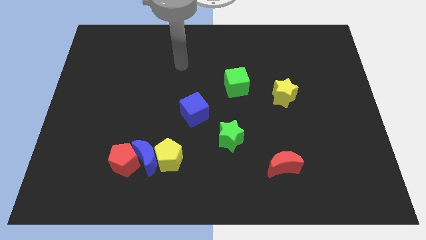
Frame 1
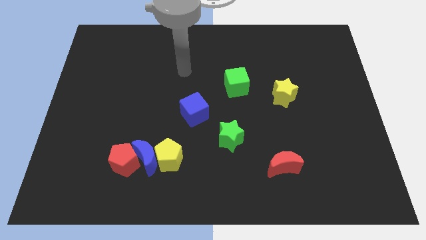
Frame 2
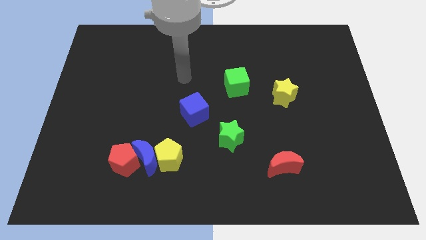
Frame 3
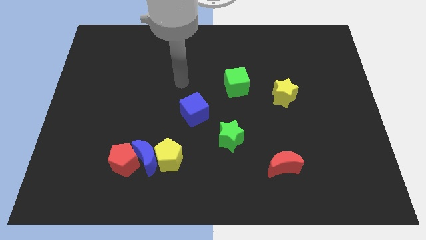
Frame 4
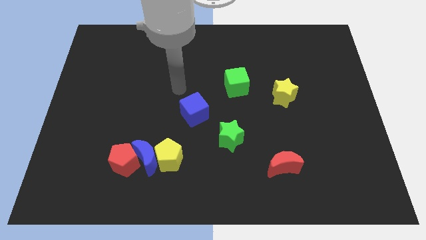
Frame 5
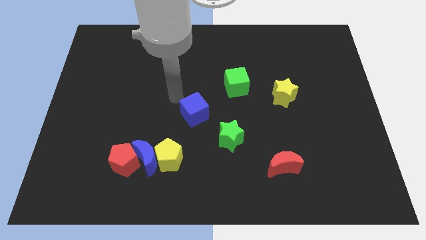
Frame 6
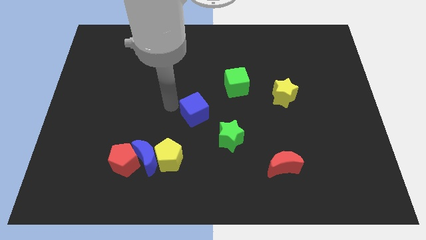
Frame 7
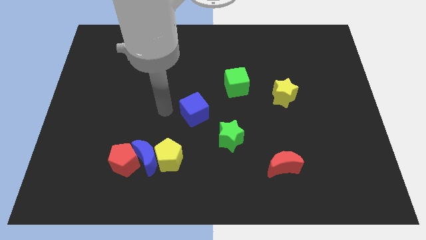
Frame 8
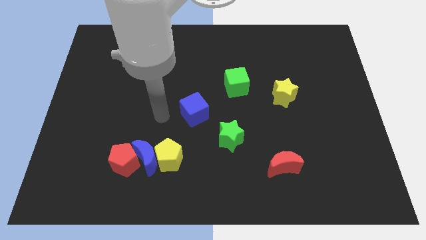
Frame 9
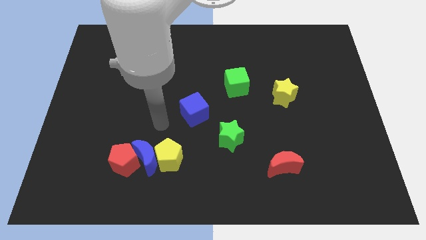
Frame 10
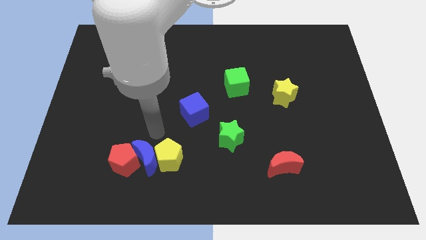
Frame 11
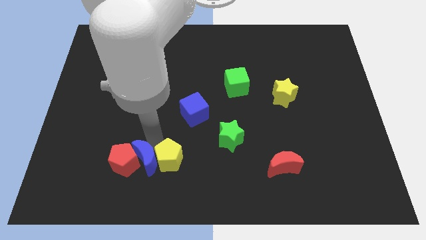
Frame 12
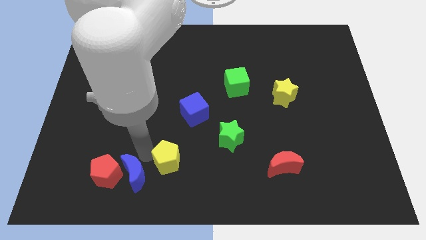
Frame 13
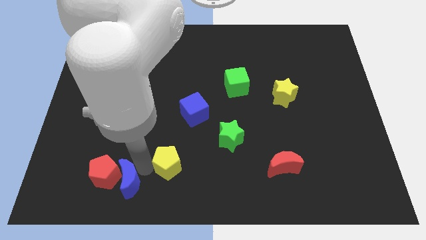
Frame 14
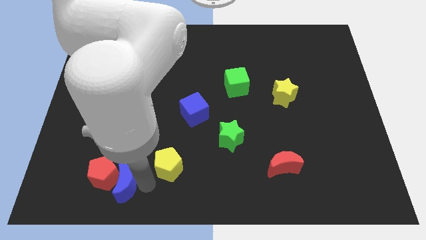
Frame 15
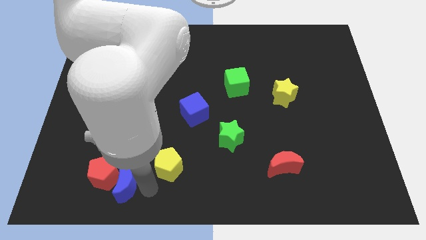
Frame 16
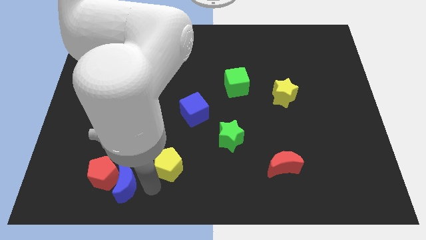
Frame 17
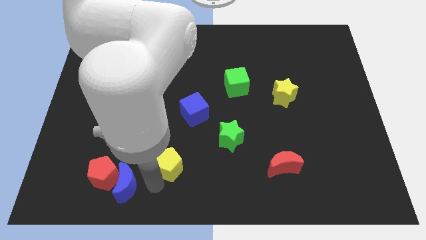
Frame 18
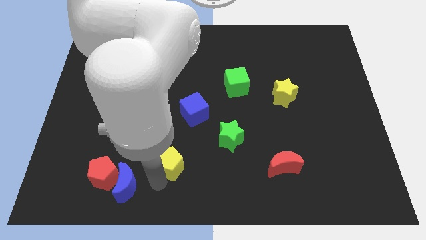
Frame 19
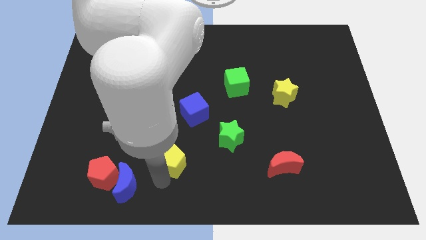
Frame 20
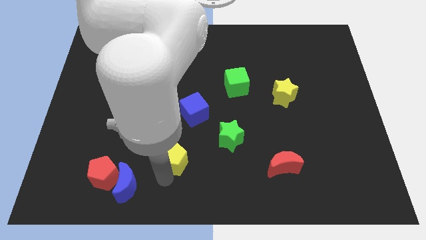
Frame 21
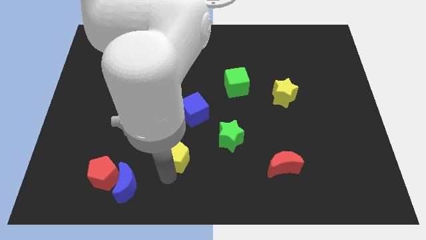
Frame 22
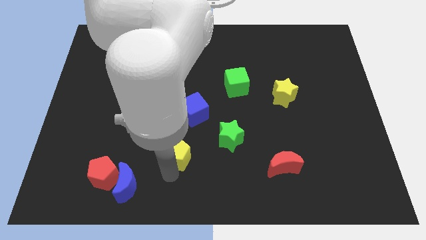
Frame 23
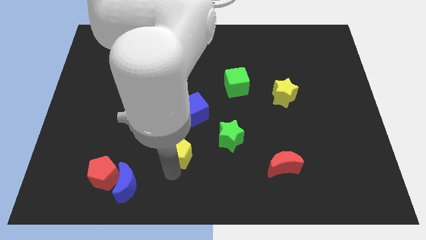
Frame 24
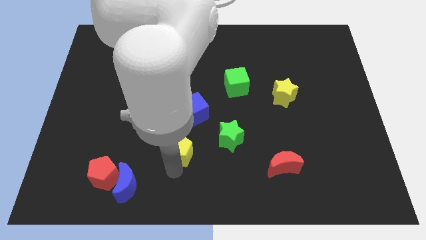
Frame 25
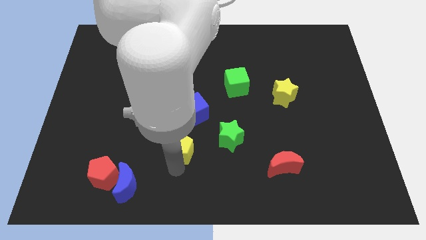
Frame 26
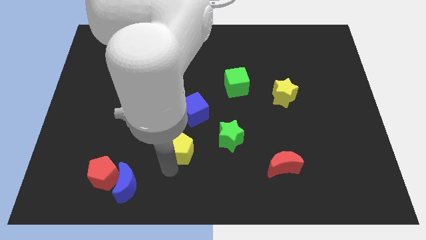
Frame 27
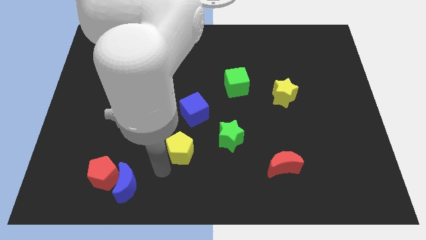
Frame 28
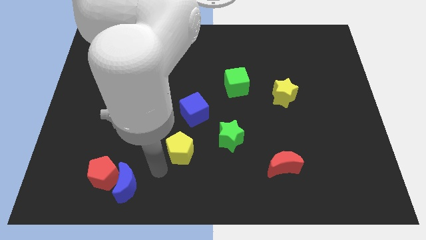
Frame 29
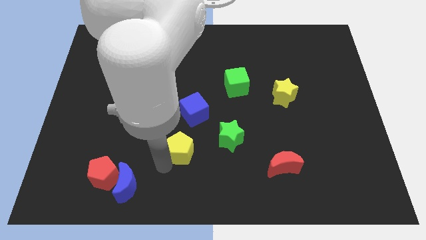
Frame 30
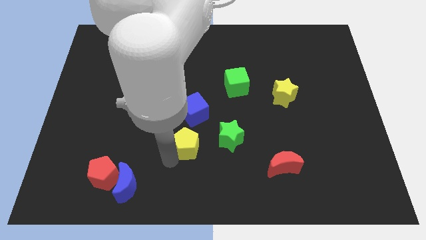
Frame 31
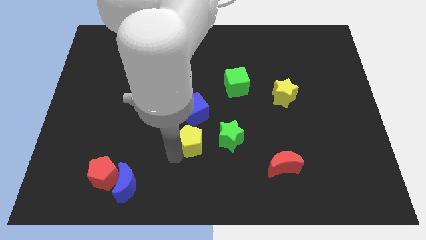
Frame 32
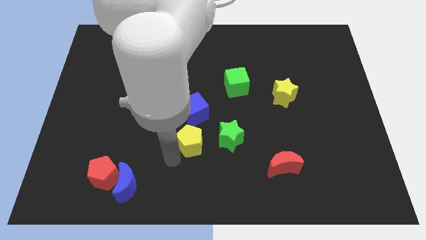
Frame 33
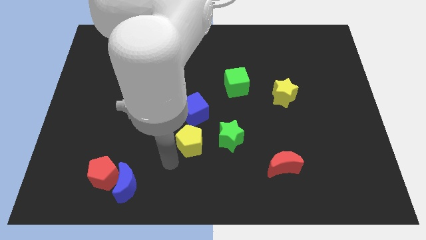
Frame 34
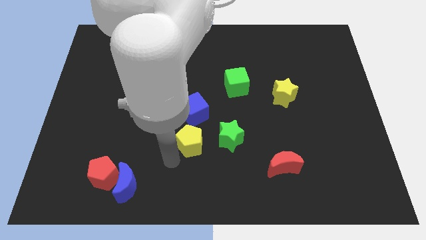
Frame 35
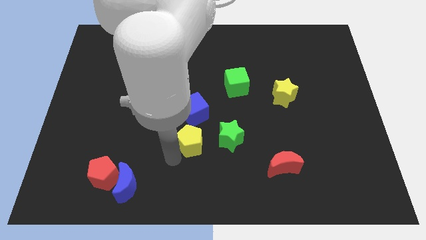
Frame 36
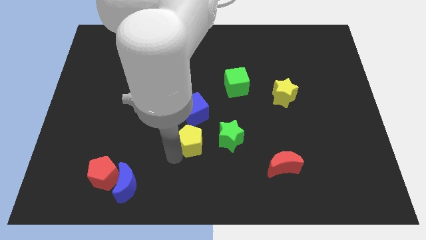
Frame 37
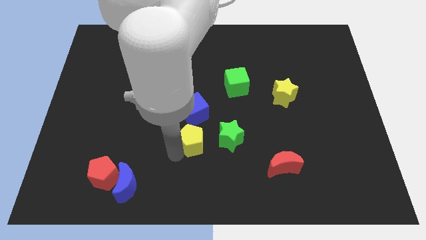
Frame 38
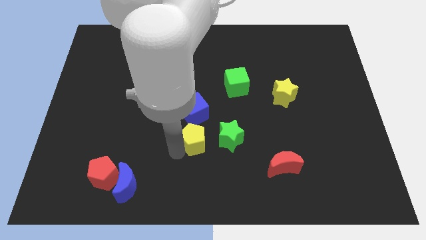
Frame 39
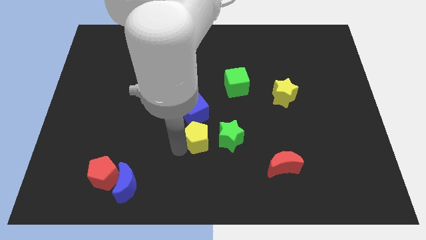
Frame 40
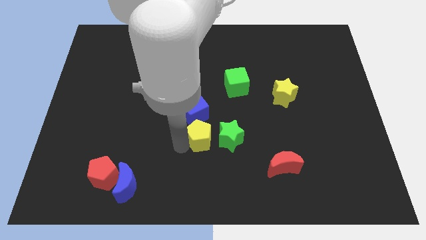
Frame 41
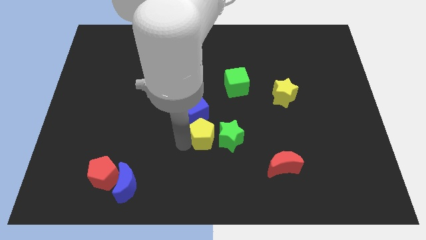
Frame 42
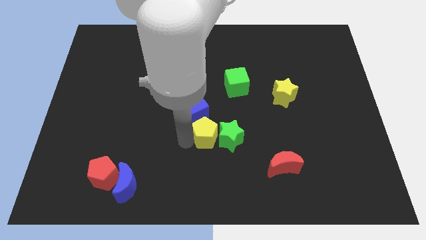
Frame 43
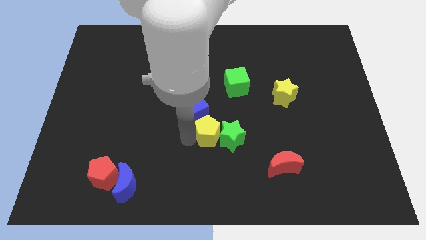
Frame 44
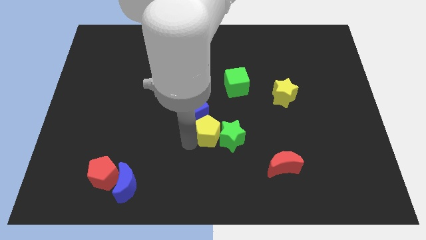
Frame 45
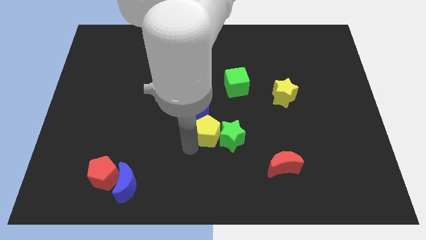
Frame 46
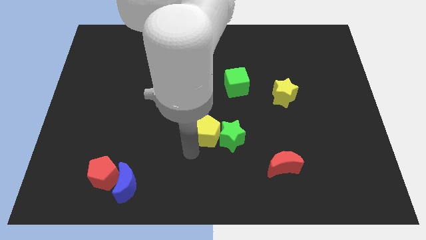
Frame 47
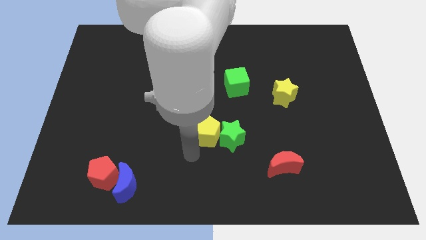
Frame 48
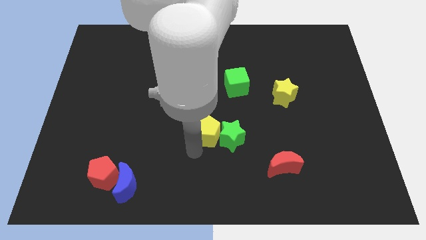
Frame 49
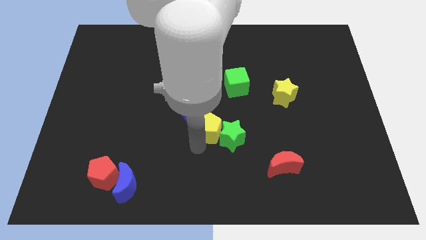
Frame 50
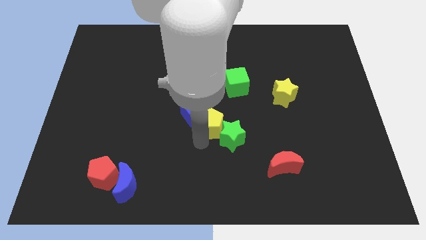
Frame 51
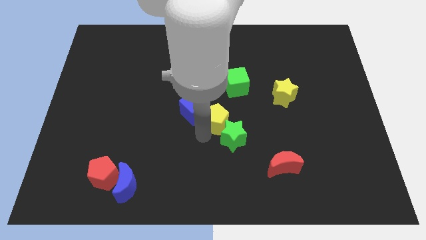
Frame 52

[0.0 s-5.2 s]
move the yellow pentagon below the green cube
